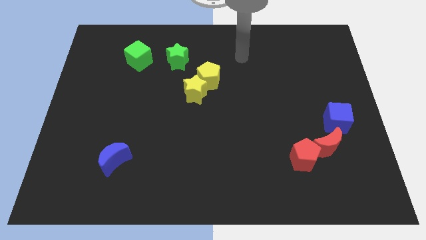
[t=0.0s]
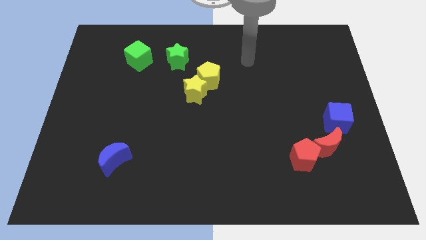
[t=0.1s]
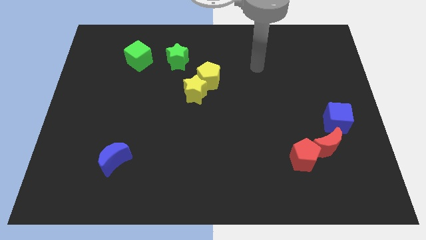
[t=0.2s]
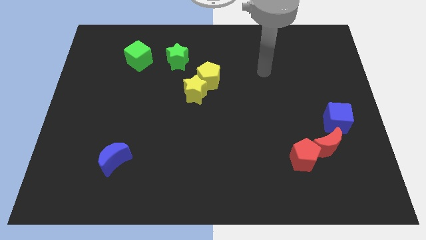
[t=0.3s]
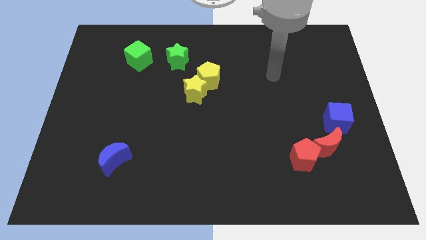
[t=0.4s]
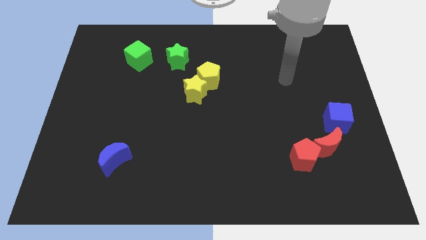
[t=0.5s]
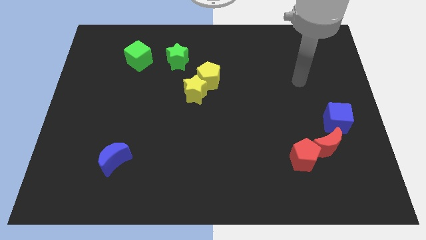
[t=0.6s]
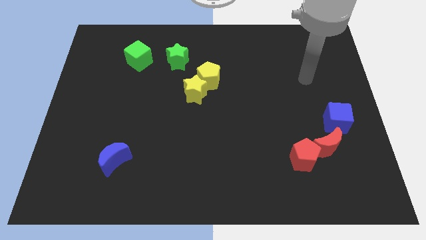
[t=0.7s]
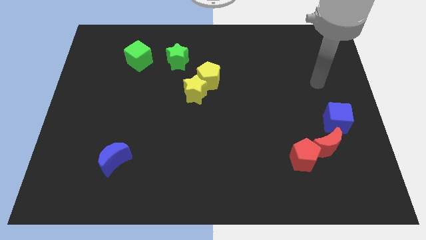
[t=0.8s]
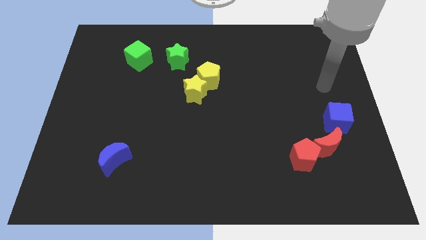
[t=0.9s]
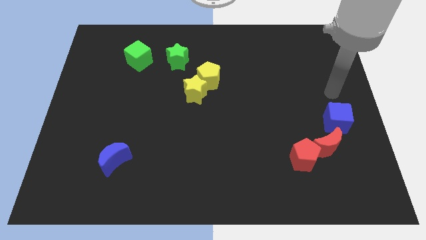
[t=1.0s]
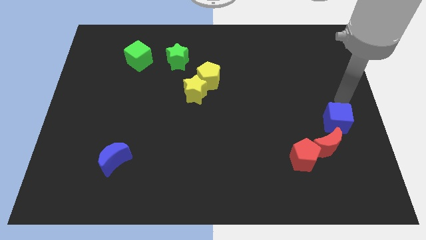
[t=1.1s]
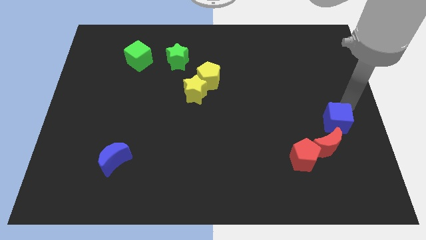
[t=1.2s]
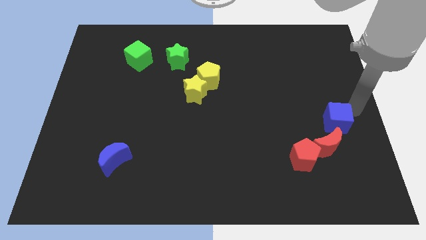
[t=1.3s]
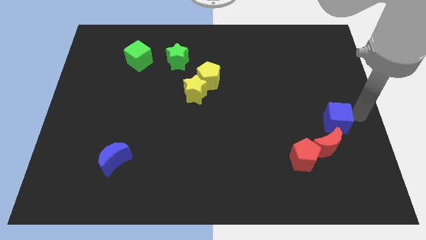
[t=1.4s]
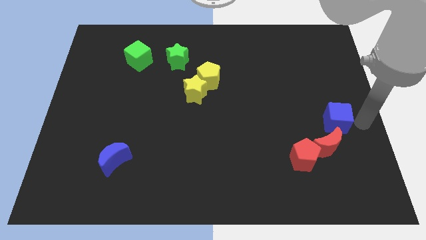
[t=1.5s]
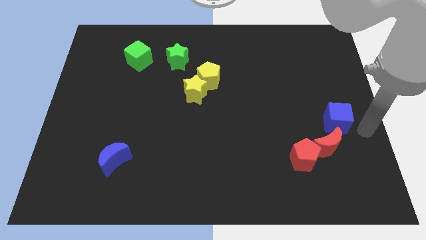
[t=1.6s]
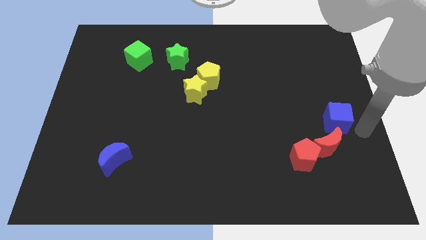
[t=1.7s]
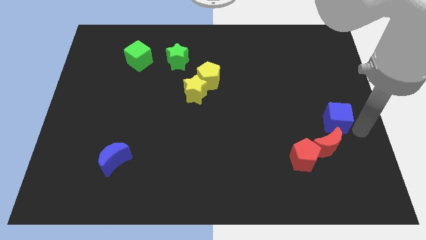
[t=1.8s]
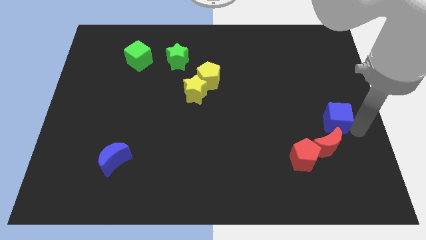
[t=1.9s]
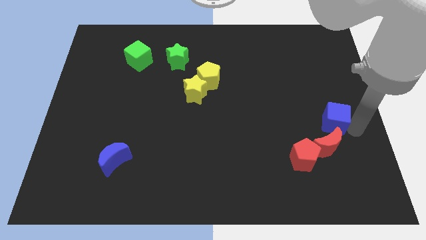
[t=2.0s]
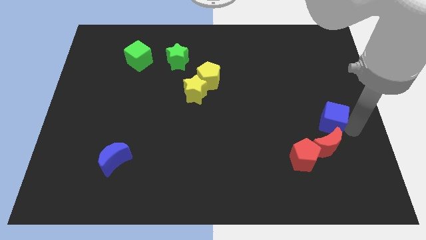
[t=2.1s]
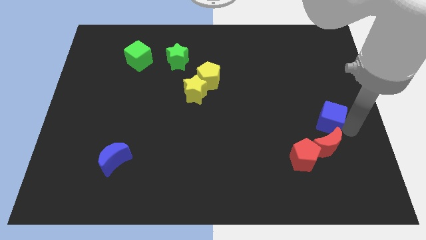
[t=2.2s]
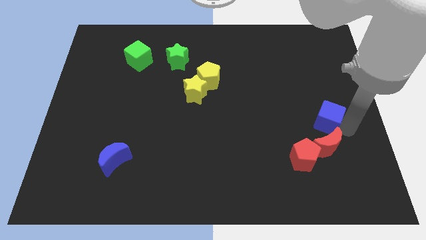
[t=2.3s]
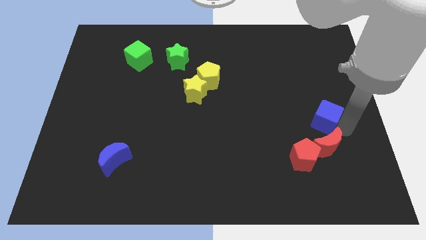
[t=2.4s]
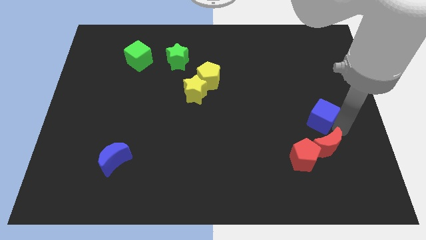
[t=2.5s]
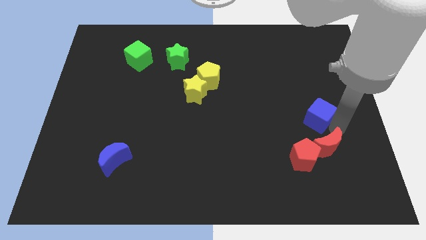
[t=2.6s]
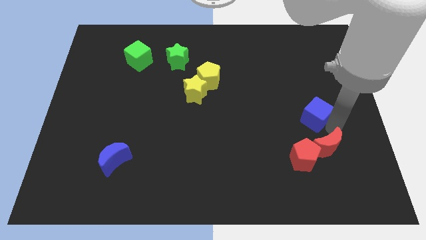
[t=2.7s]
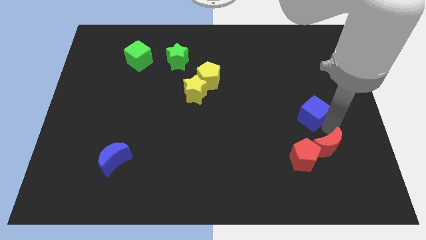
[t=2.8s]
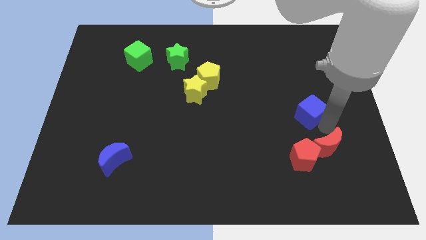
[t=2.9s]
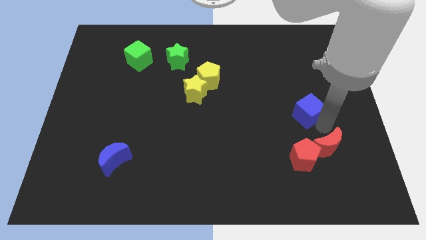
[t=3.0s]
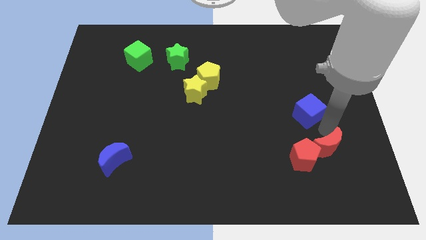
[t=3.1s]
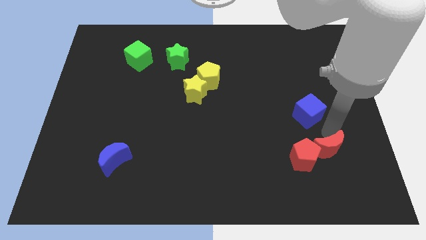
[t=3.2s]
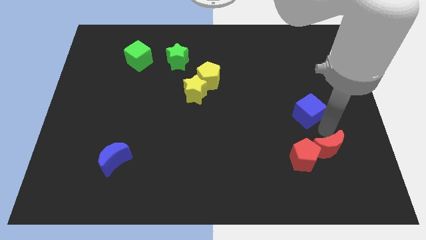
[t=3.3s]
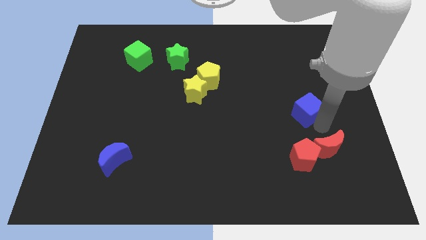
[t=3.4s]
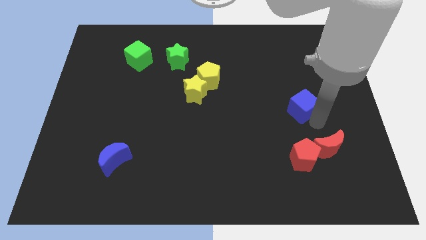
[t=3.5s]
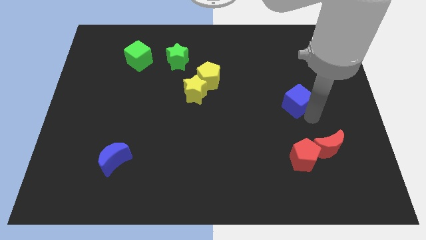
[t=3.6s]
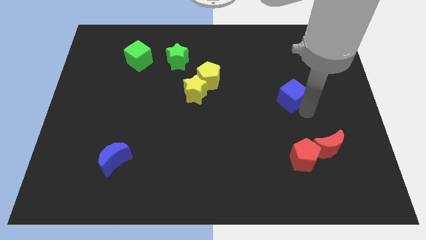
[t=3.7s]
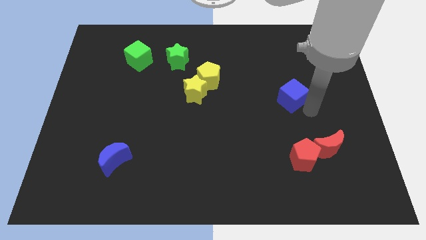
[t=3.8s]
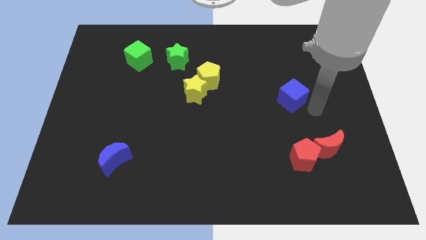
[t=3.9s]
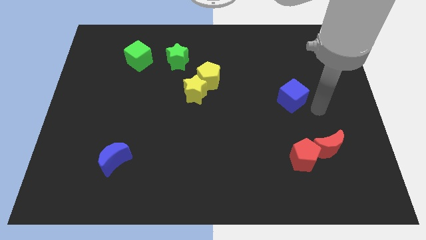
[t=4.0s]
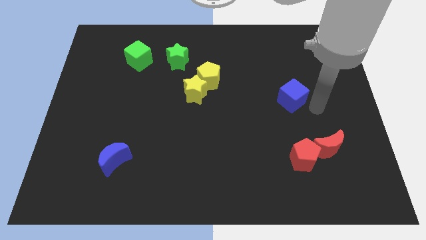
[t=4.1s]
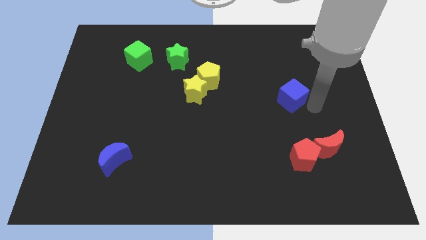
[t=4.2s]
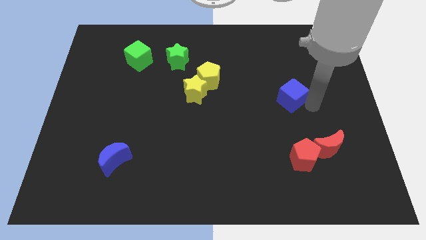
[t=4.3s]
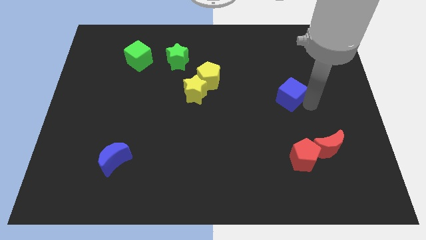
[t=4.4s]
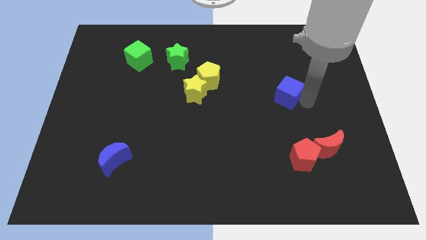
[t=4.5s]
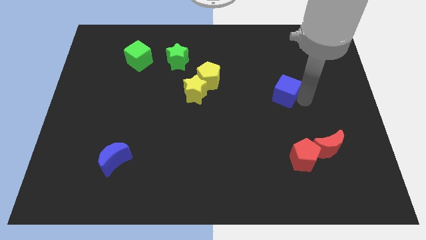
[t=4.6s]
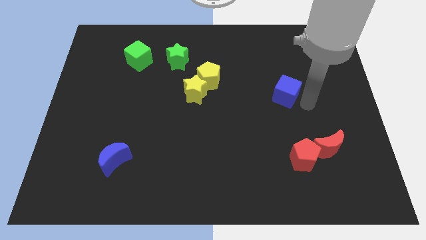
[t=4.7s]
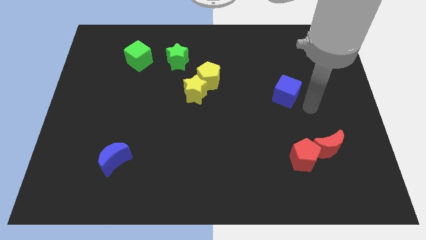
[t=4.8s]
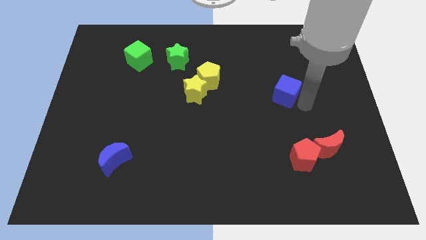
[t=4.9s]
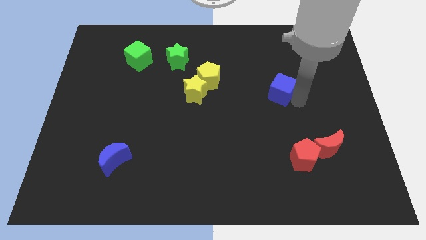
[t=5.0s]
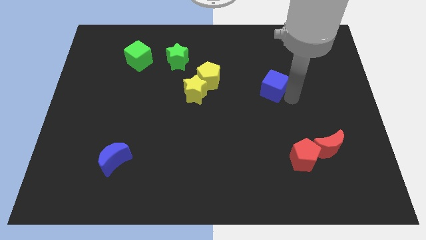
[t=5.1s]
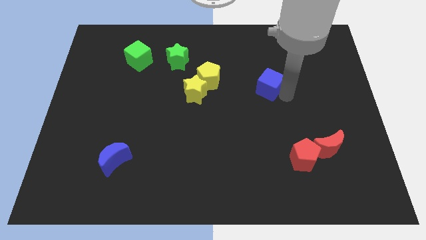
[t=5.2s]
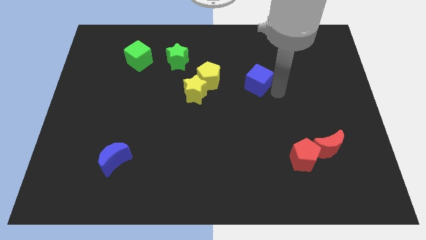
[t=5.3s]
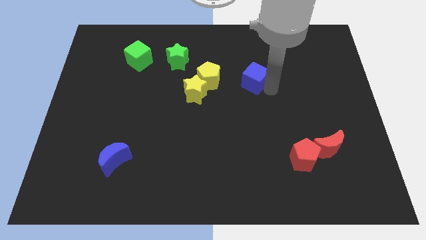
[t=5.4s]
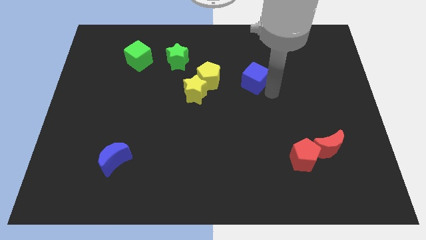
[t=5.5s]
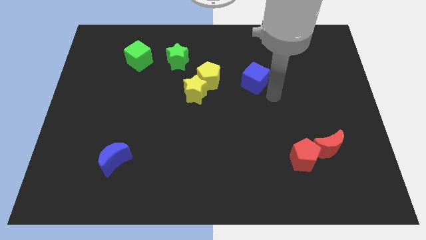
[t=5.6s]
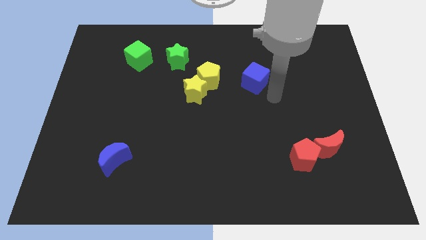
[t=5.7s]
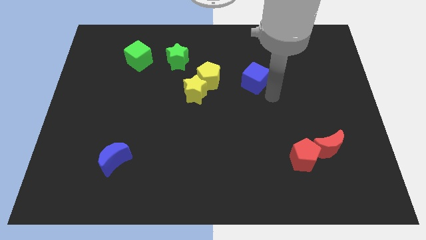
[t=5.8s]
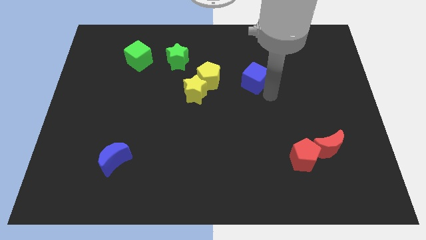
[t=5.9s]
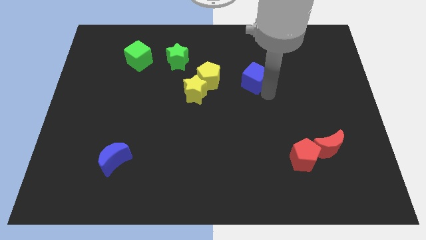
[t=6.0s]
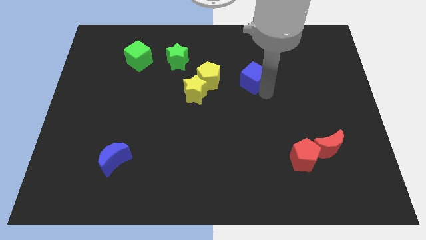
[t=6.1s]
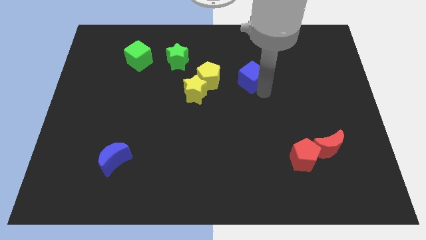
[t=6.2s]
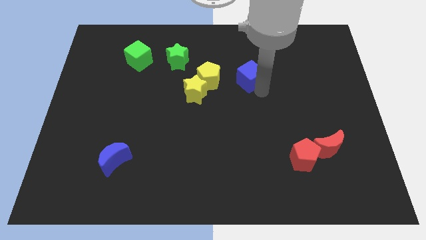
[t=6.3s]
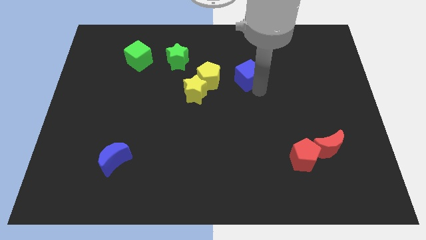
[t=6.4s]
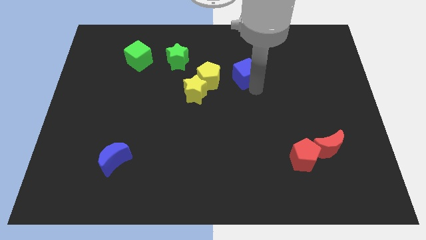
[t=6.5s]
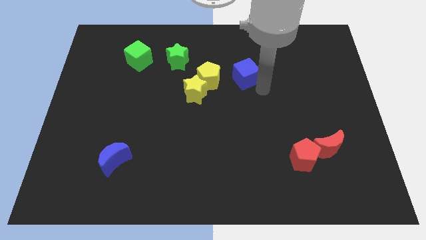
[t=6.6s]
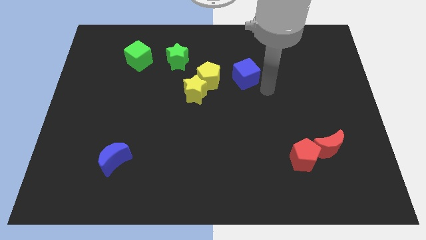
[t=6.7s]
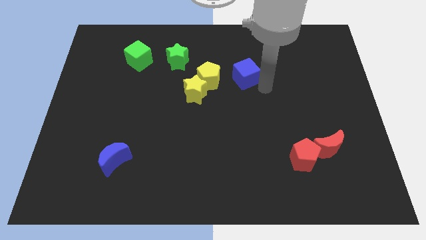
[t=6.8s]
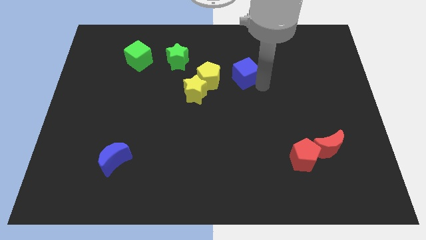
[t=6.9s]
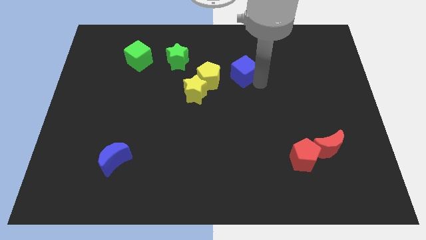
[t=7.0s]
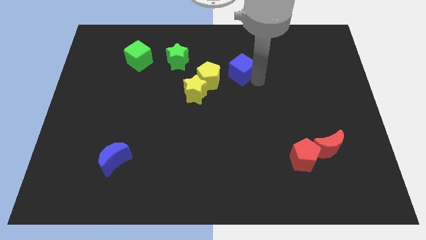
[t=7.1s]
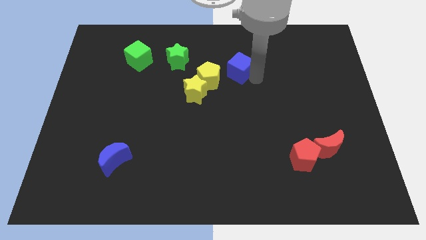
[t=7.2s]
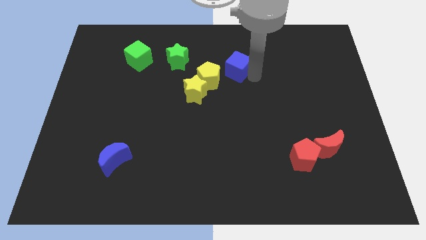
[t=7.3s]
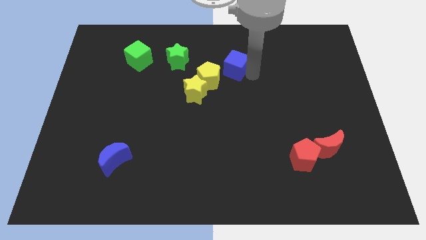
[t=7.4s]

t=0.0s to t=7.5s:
push the blue cube just right of the green star

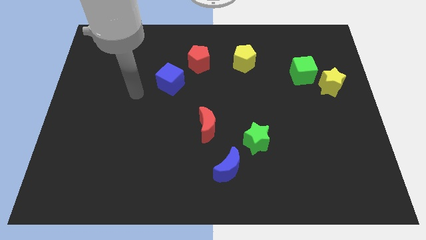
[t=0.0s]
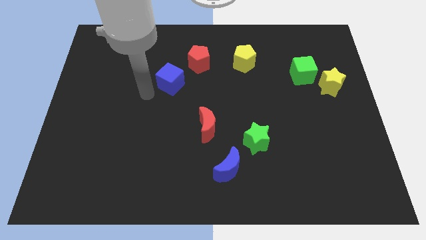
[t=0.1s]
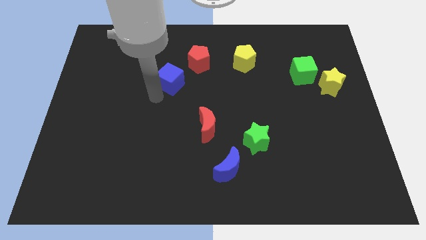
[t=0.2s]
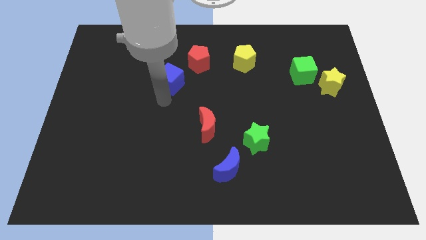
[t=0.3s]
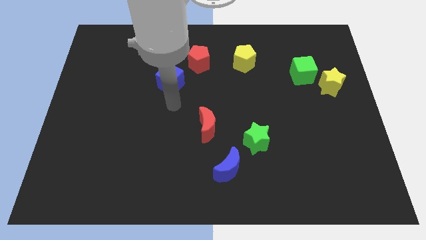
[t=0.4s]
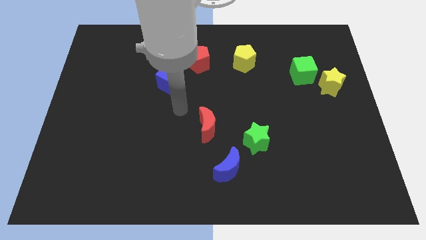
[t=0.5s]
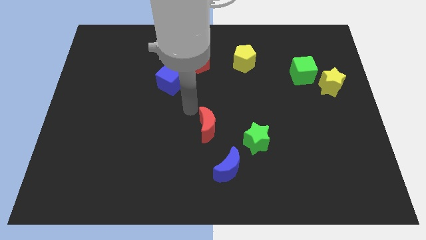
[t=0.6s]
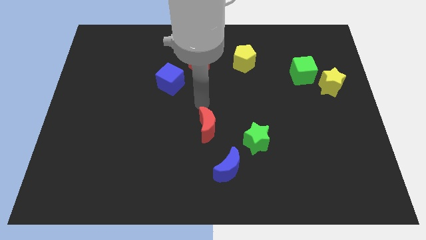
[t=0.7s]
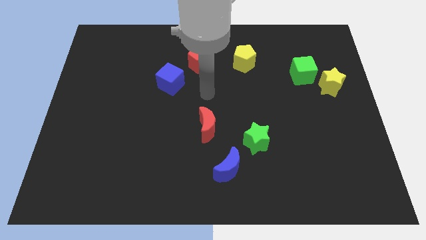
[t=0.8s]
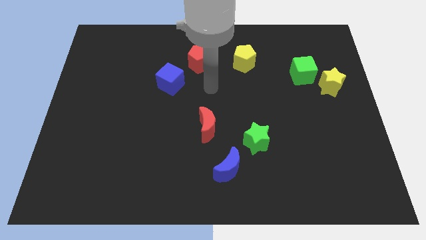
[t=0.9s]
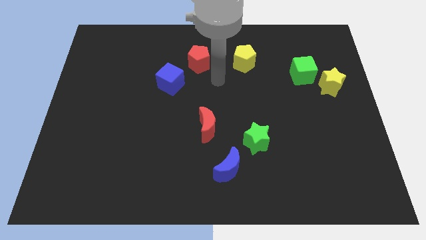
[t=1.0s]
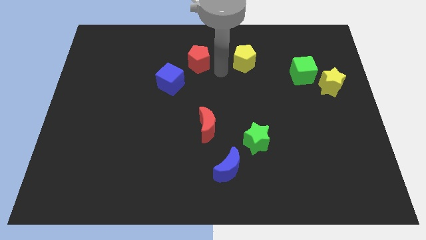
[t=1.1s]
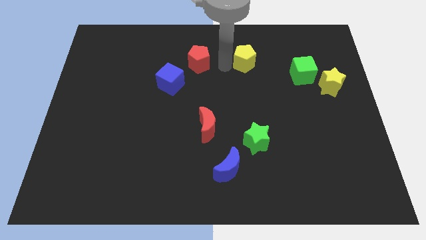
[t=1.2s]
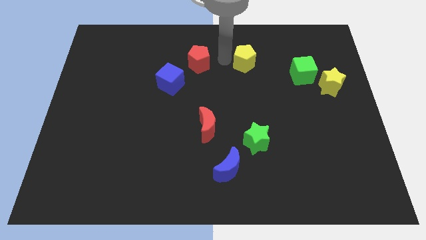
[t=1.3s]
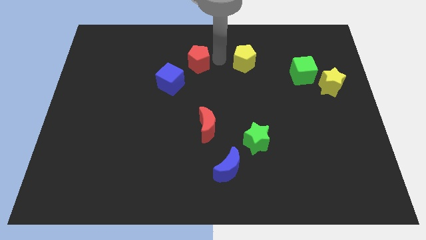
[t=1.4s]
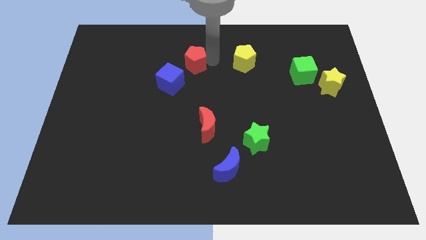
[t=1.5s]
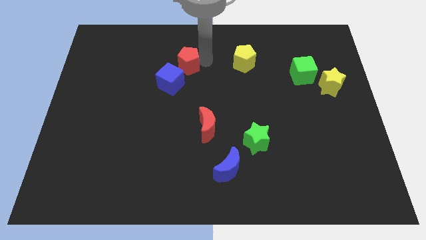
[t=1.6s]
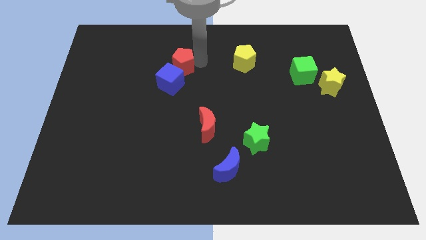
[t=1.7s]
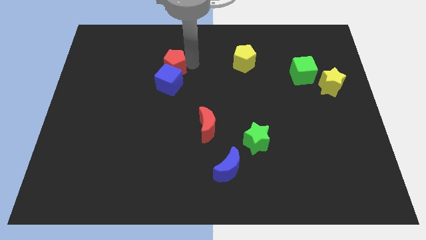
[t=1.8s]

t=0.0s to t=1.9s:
push the red pentagon to the top left of the blue cube
